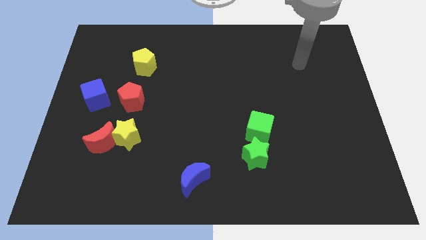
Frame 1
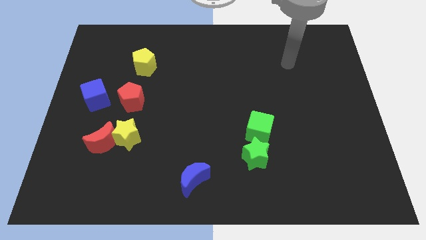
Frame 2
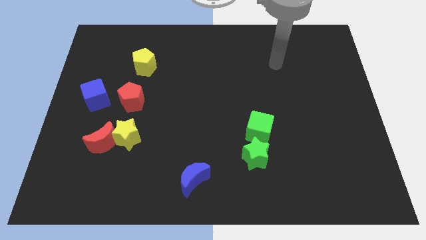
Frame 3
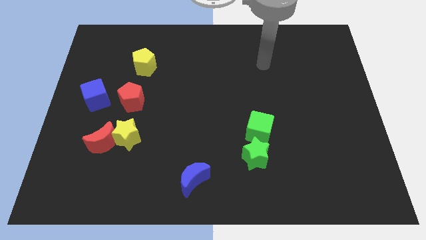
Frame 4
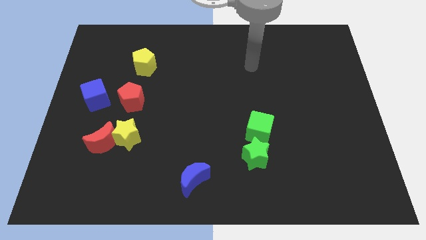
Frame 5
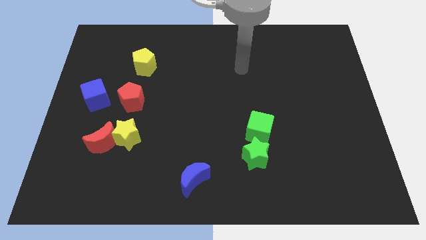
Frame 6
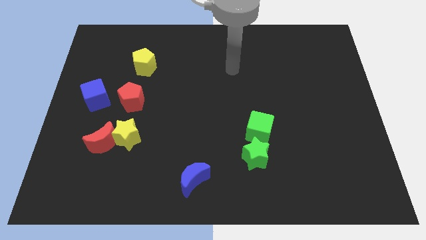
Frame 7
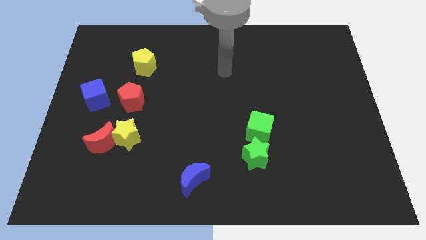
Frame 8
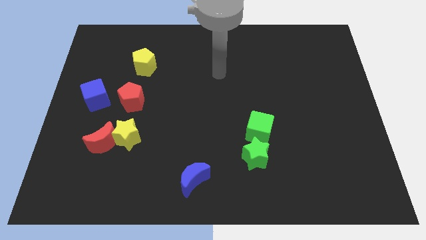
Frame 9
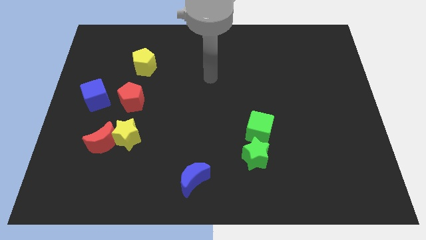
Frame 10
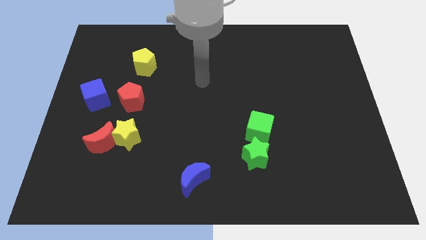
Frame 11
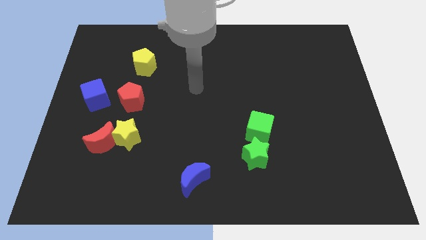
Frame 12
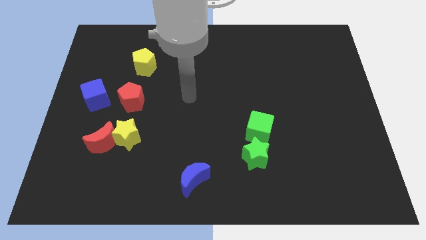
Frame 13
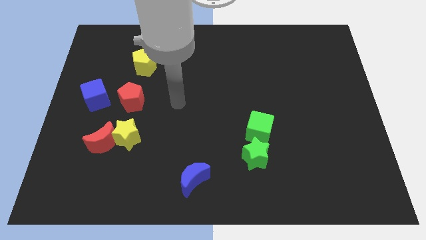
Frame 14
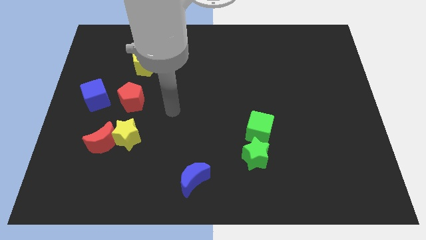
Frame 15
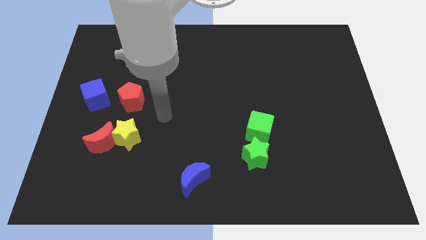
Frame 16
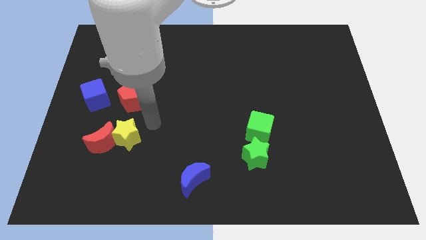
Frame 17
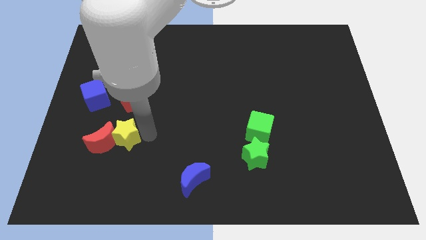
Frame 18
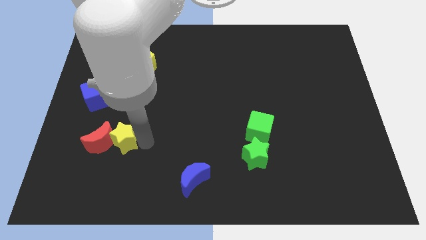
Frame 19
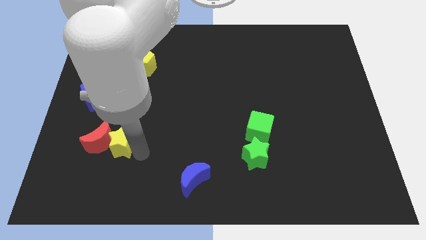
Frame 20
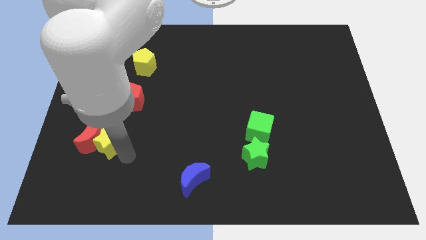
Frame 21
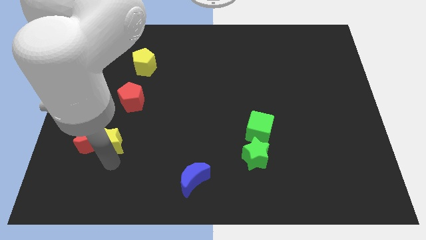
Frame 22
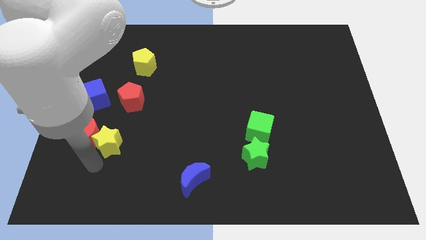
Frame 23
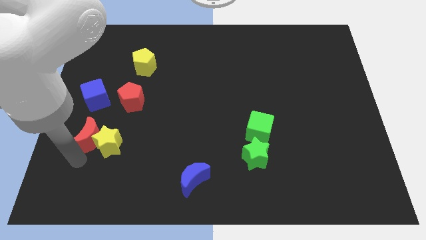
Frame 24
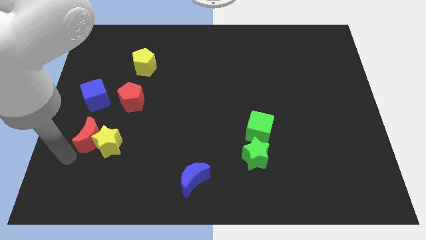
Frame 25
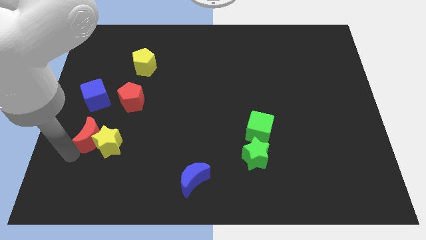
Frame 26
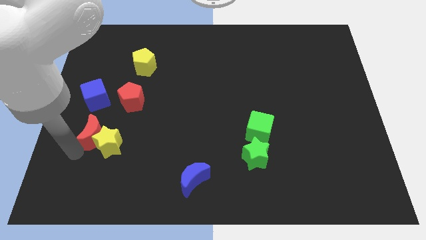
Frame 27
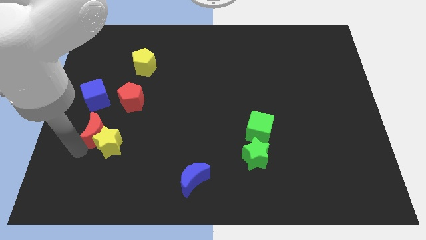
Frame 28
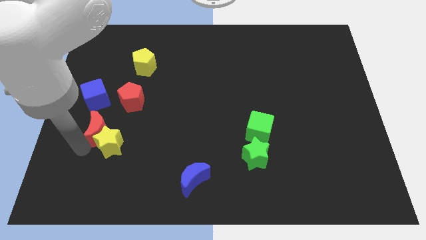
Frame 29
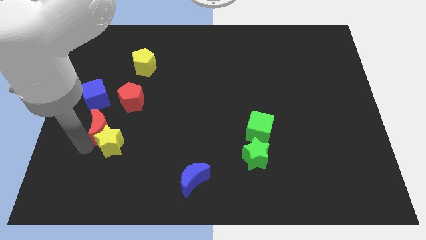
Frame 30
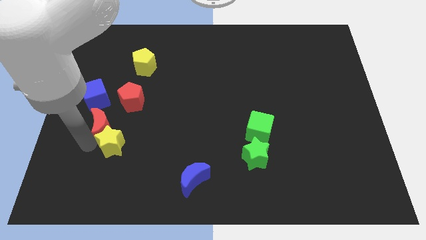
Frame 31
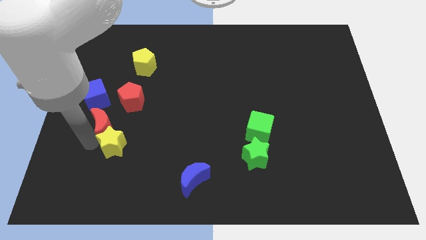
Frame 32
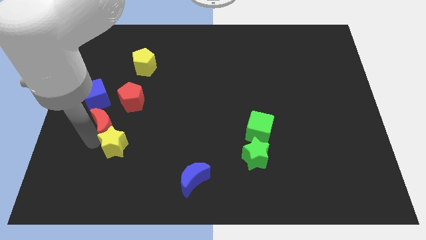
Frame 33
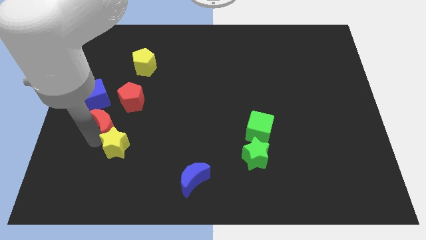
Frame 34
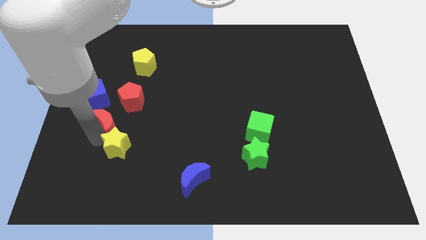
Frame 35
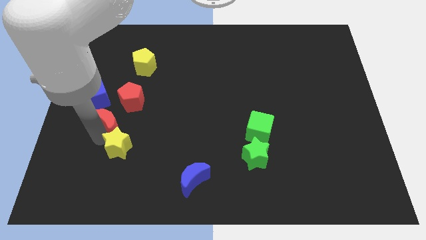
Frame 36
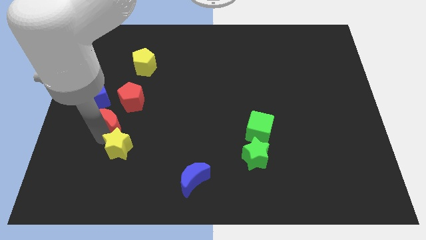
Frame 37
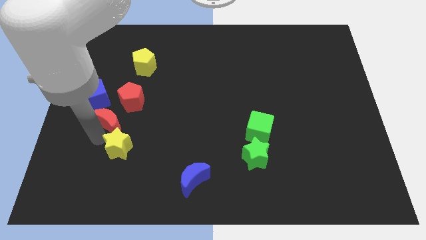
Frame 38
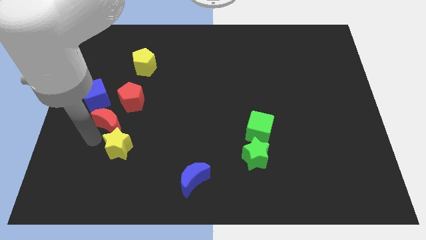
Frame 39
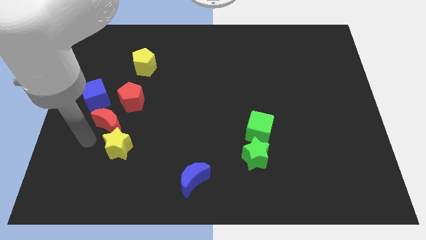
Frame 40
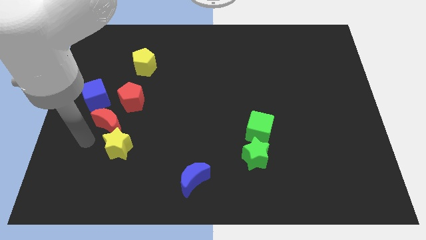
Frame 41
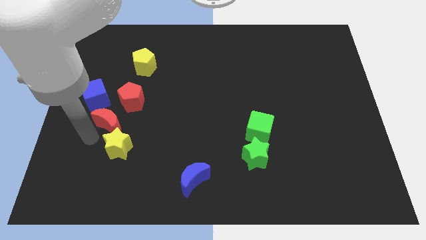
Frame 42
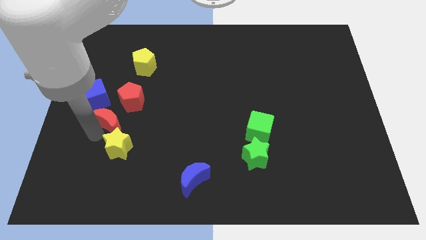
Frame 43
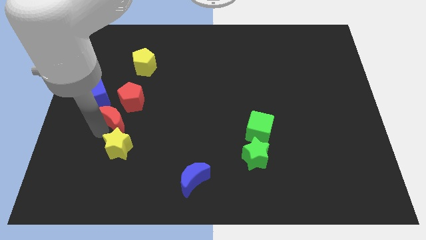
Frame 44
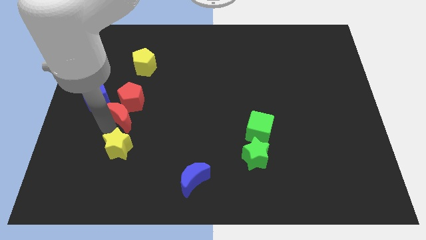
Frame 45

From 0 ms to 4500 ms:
slide the red moon close to the red pentagon

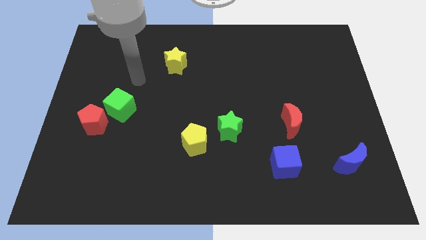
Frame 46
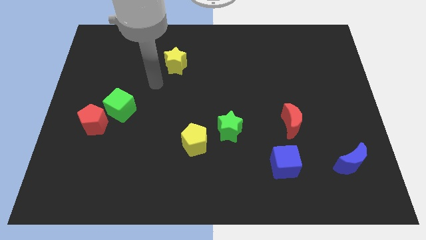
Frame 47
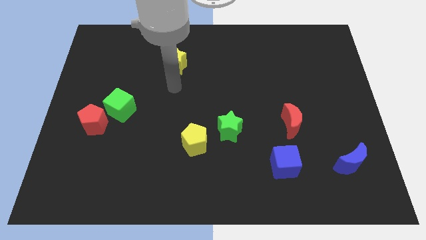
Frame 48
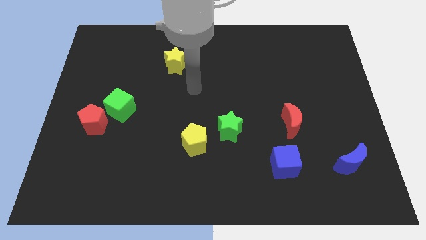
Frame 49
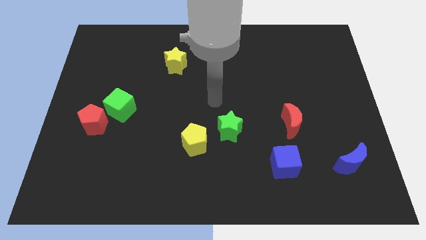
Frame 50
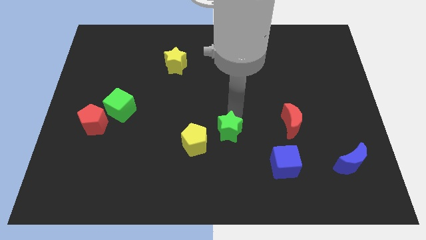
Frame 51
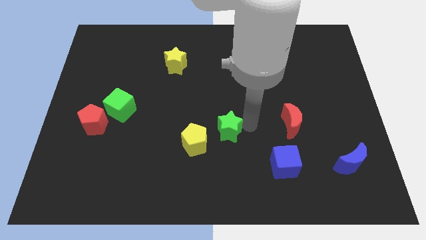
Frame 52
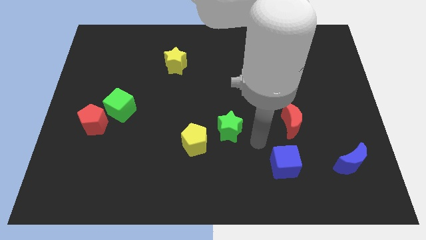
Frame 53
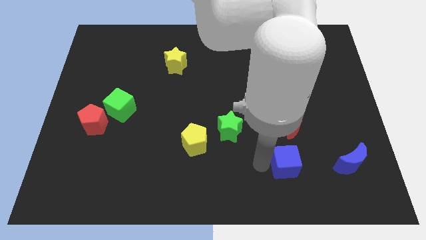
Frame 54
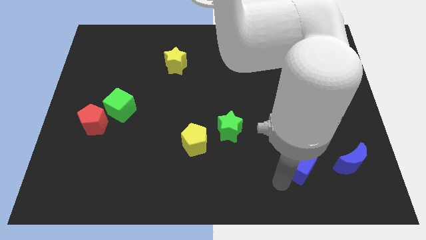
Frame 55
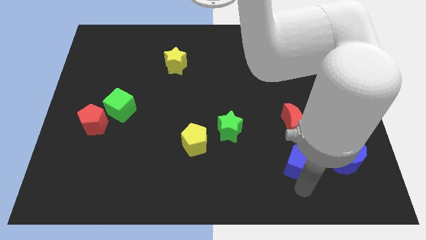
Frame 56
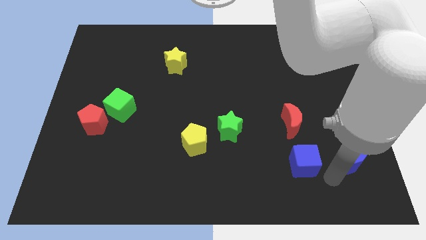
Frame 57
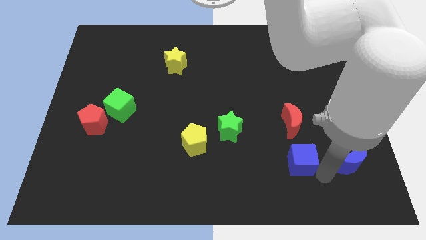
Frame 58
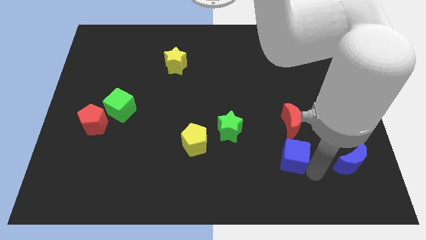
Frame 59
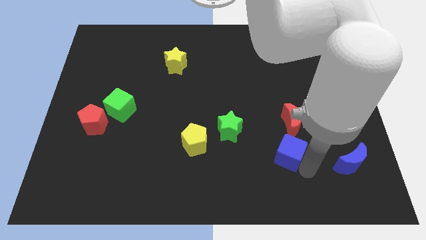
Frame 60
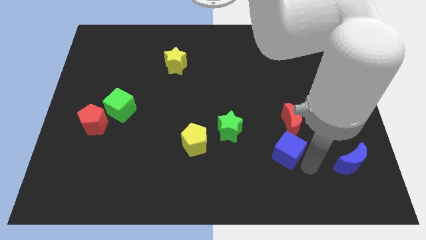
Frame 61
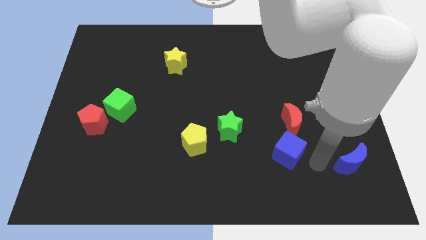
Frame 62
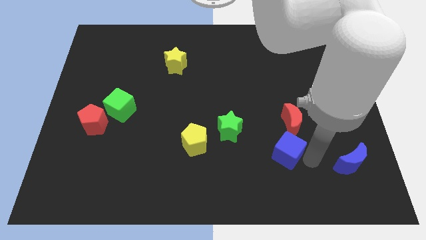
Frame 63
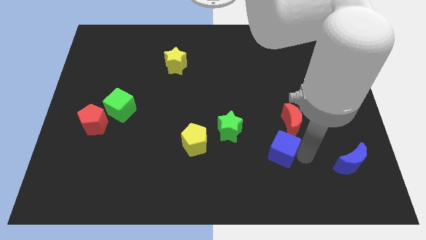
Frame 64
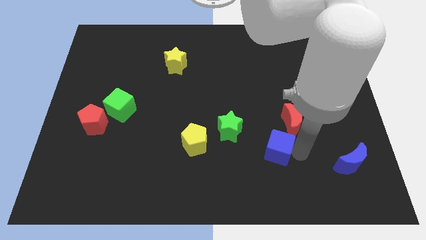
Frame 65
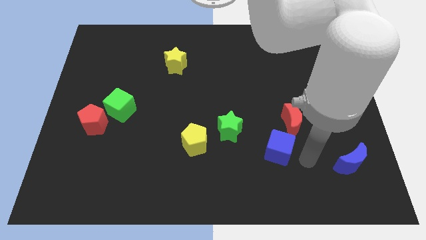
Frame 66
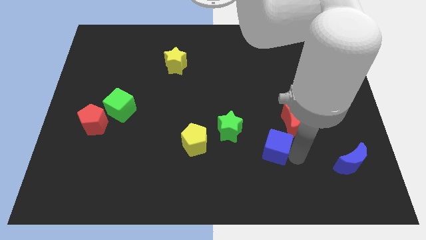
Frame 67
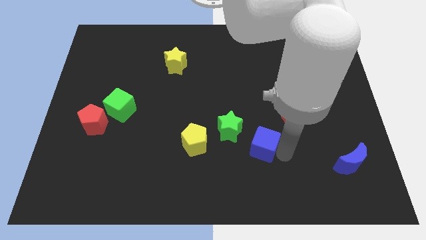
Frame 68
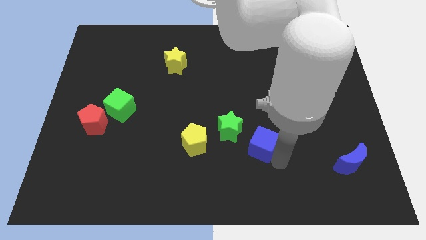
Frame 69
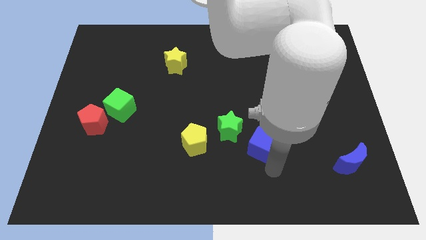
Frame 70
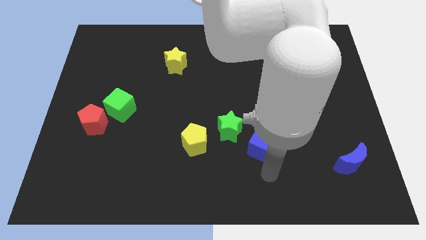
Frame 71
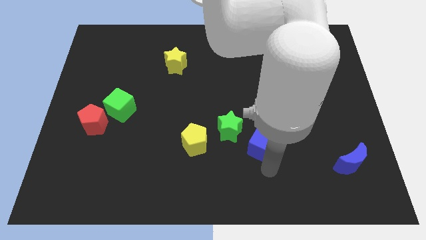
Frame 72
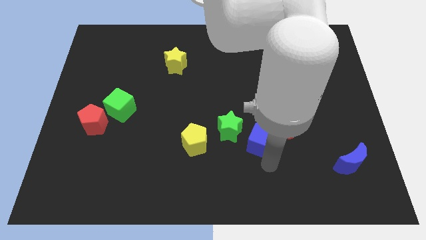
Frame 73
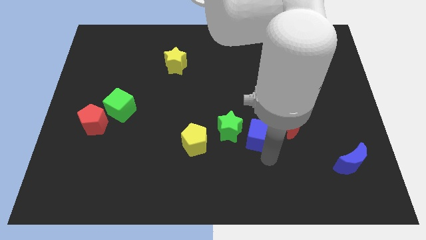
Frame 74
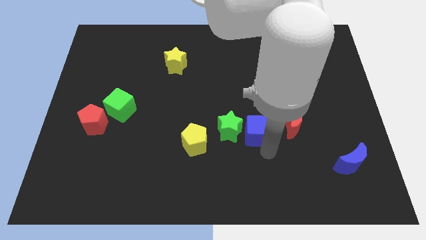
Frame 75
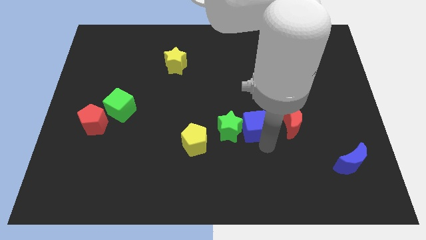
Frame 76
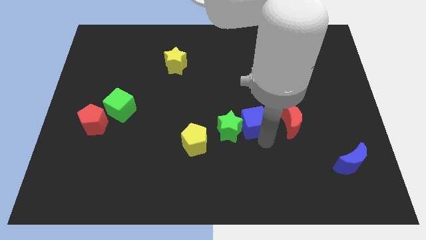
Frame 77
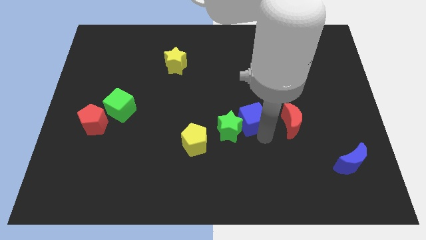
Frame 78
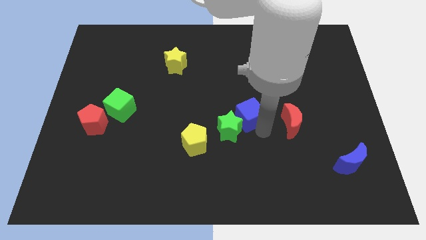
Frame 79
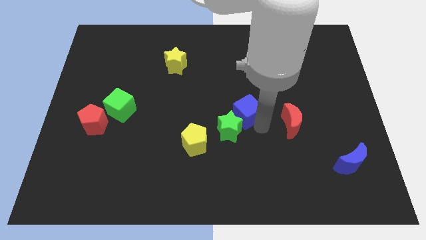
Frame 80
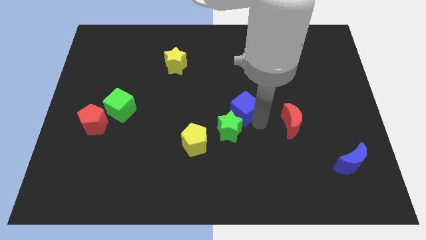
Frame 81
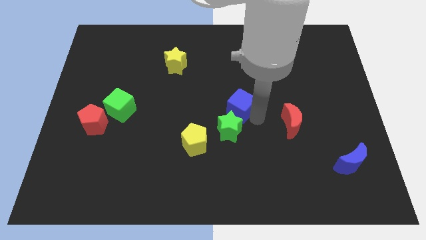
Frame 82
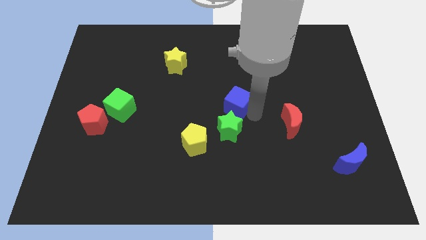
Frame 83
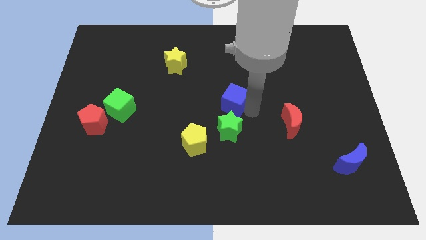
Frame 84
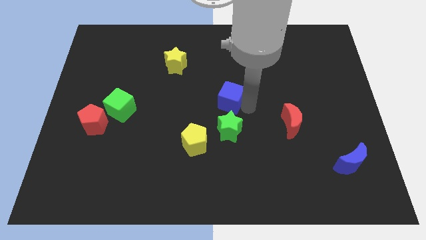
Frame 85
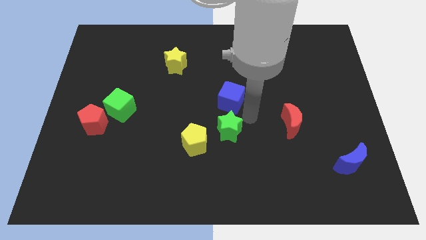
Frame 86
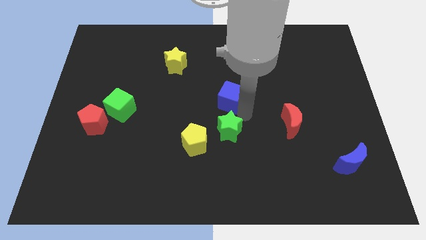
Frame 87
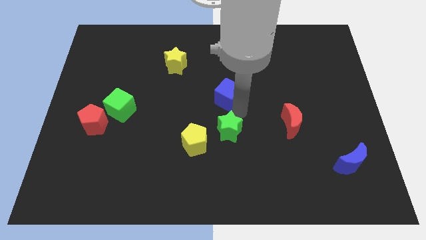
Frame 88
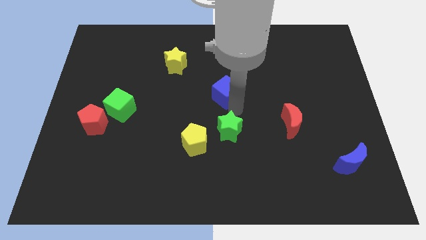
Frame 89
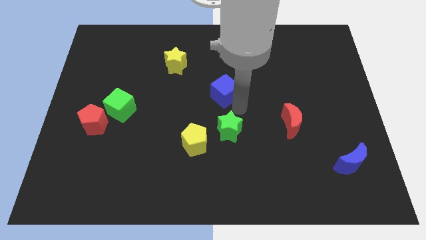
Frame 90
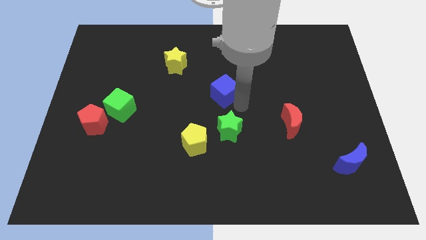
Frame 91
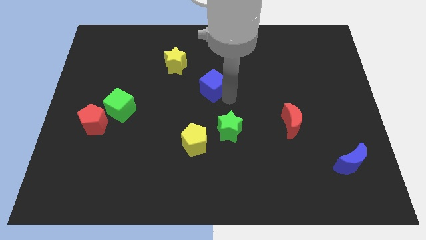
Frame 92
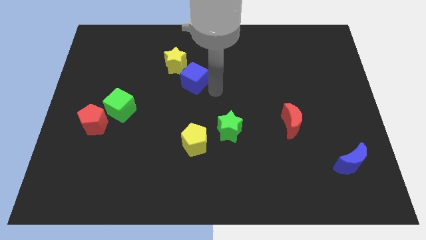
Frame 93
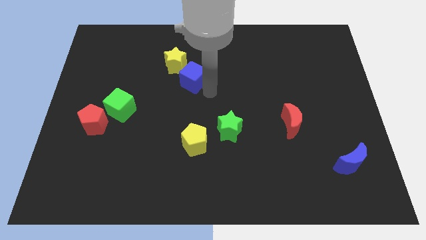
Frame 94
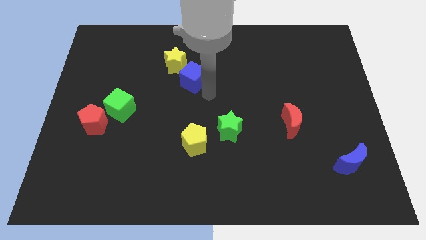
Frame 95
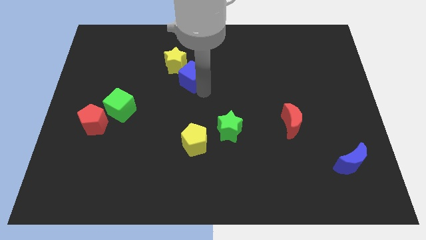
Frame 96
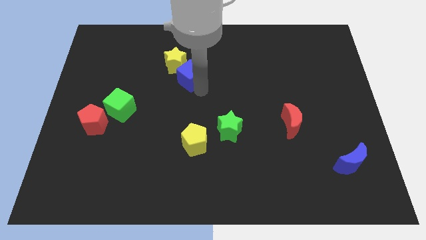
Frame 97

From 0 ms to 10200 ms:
slide the blue cube towards the yellow star
